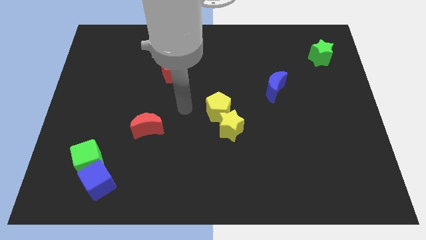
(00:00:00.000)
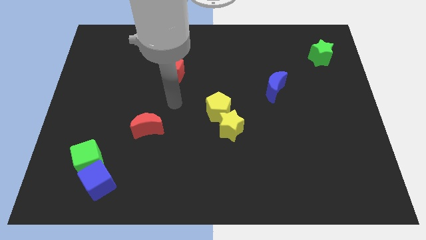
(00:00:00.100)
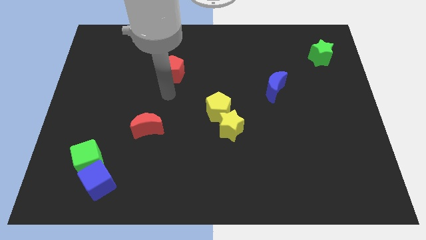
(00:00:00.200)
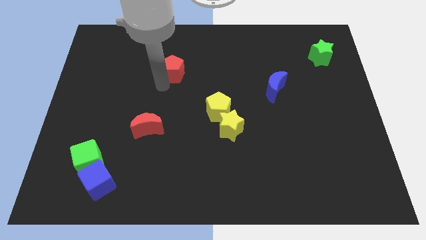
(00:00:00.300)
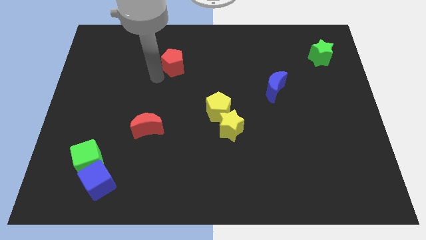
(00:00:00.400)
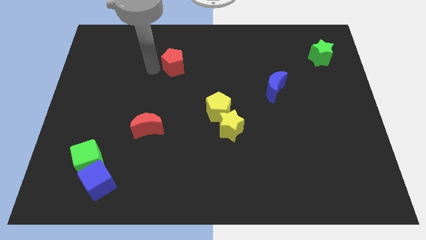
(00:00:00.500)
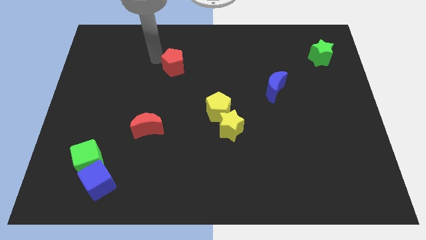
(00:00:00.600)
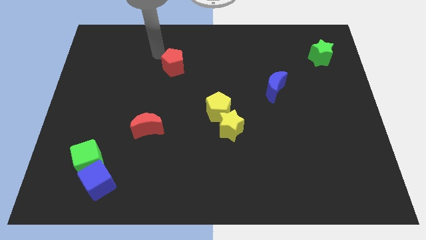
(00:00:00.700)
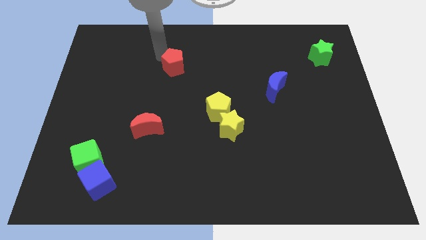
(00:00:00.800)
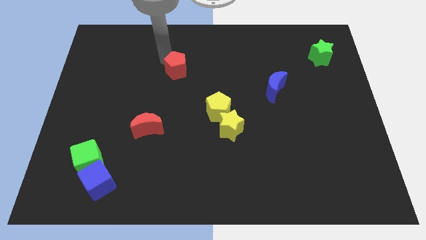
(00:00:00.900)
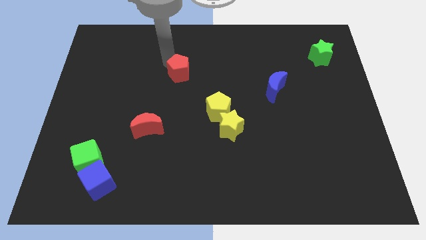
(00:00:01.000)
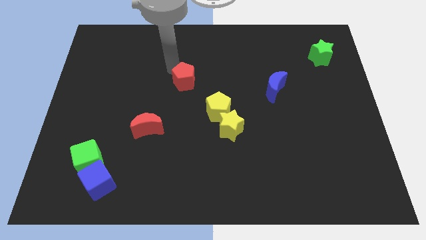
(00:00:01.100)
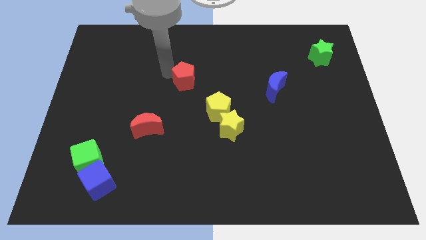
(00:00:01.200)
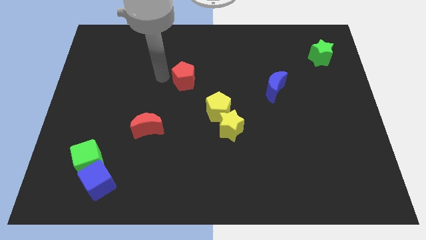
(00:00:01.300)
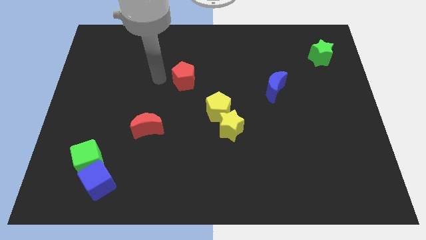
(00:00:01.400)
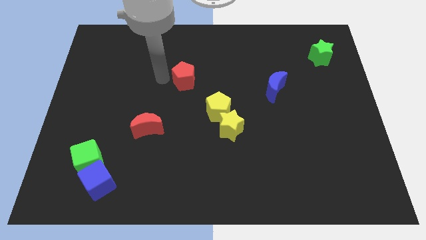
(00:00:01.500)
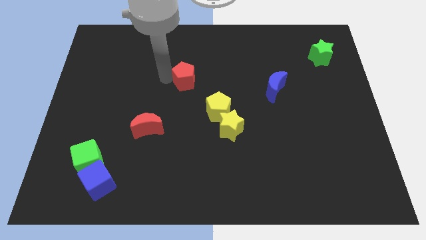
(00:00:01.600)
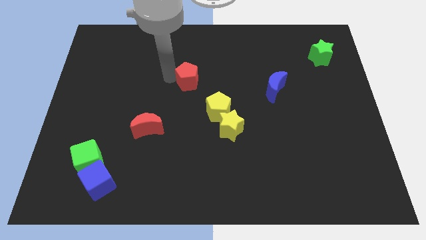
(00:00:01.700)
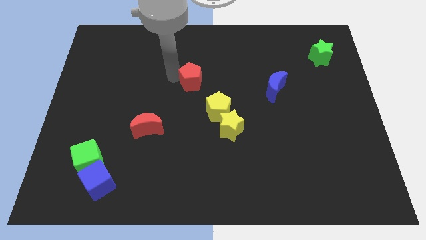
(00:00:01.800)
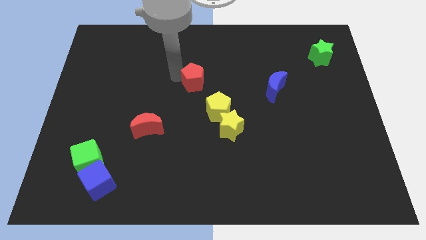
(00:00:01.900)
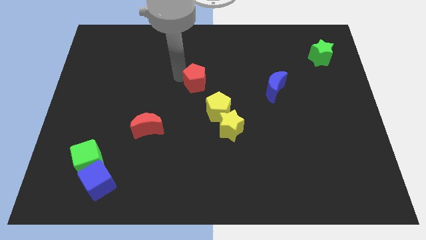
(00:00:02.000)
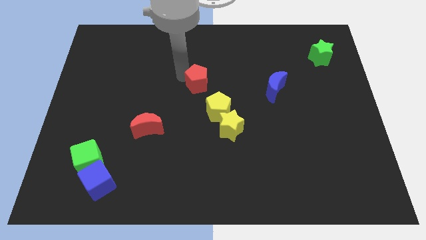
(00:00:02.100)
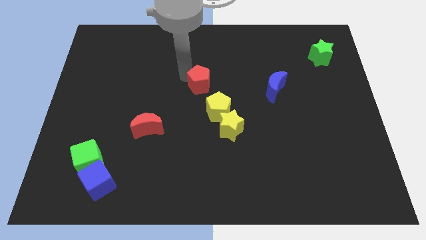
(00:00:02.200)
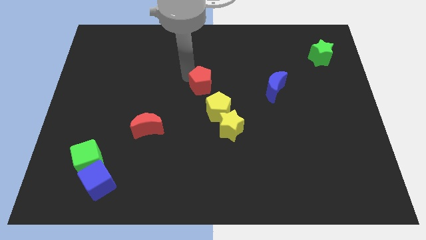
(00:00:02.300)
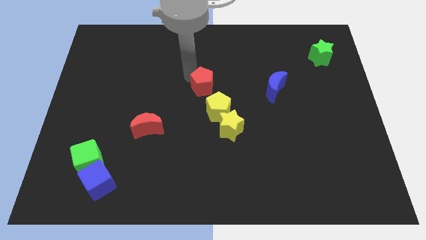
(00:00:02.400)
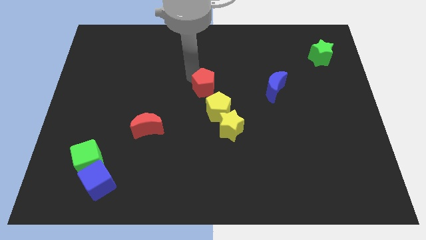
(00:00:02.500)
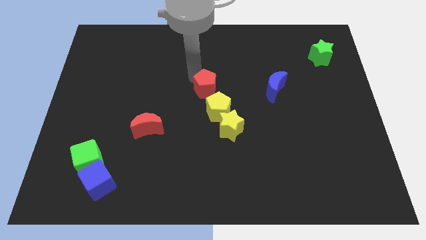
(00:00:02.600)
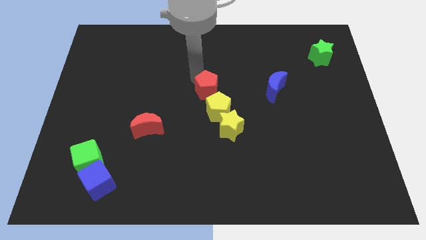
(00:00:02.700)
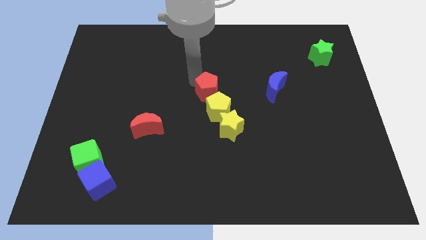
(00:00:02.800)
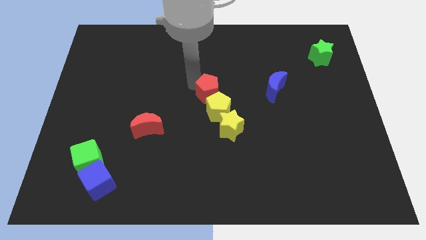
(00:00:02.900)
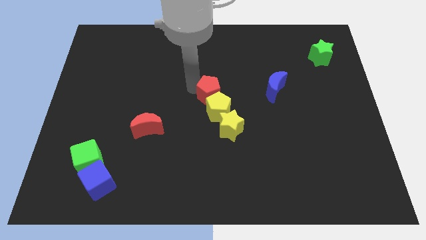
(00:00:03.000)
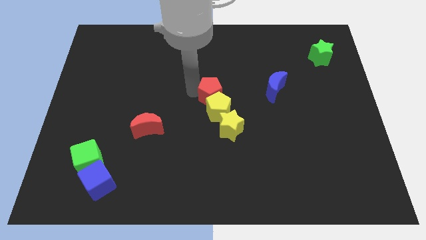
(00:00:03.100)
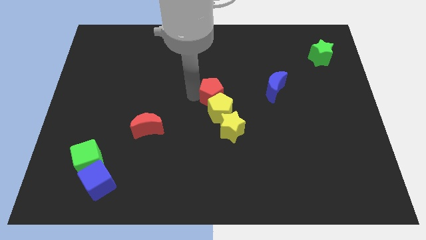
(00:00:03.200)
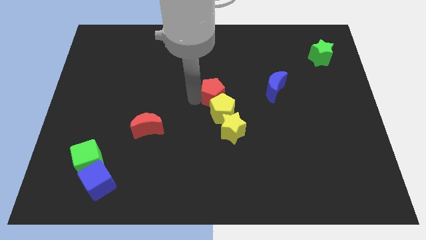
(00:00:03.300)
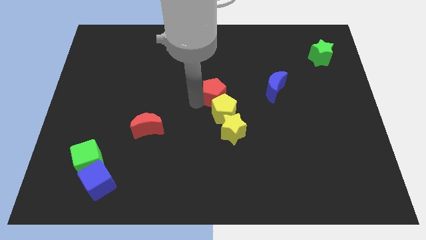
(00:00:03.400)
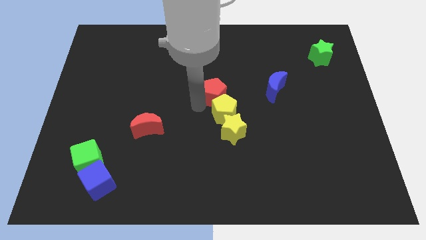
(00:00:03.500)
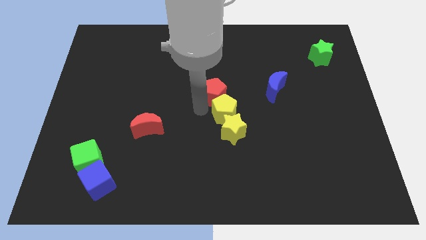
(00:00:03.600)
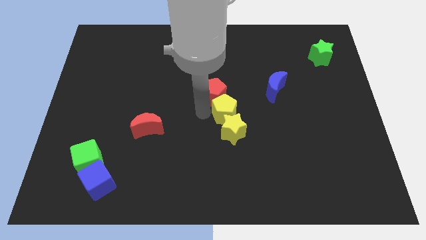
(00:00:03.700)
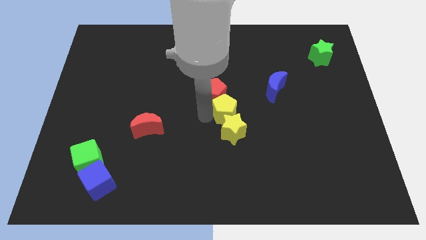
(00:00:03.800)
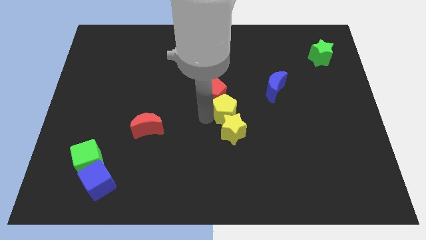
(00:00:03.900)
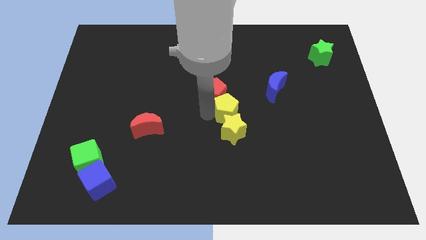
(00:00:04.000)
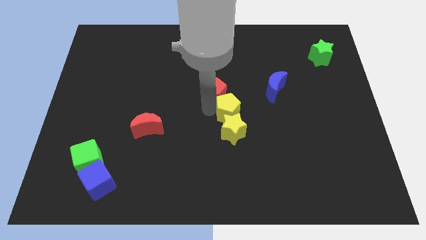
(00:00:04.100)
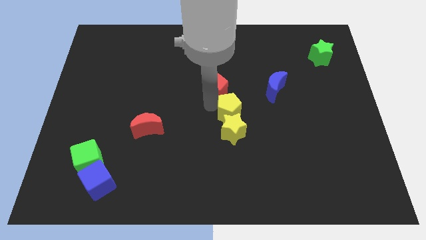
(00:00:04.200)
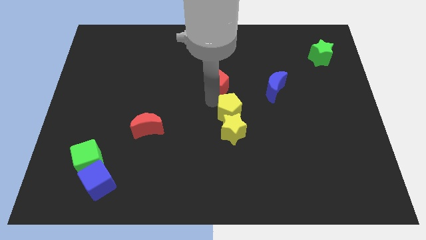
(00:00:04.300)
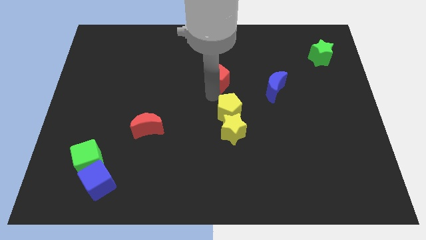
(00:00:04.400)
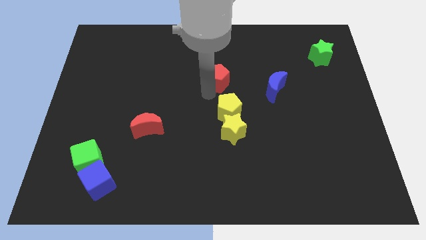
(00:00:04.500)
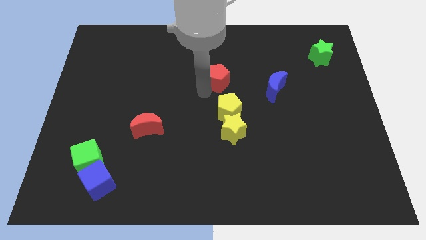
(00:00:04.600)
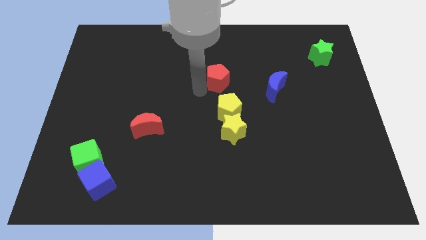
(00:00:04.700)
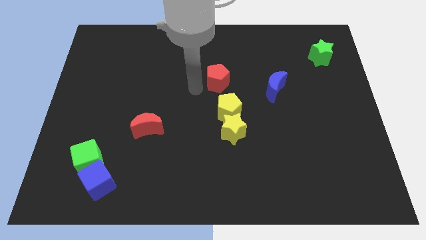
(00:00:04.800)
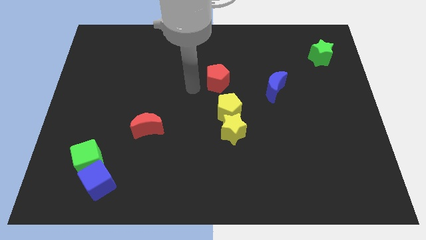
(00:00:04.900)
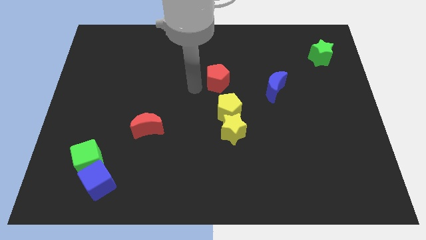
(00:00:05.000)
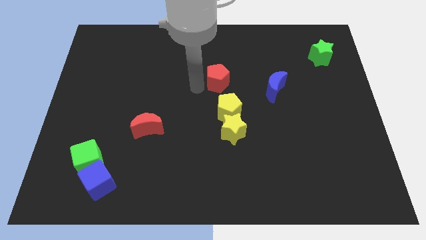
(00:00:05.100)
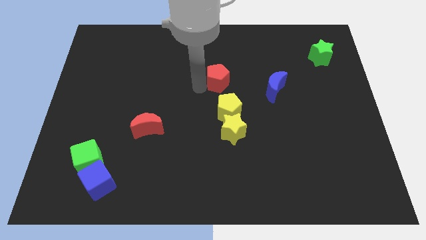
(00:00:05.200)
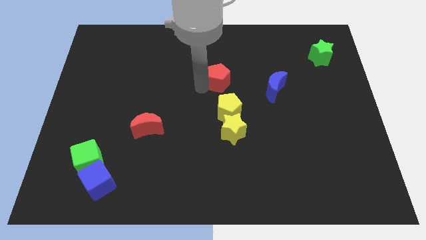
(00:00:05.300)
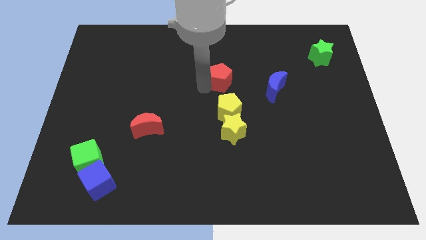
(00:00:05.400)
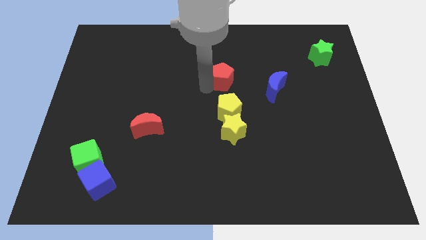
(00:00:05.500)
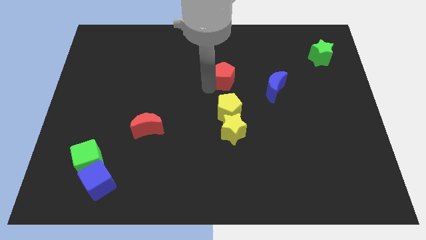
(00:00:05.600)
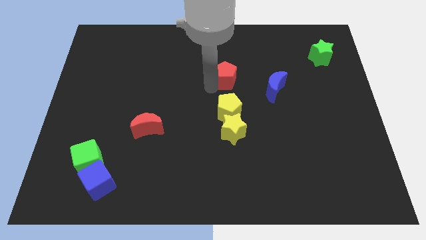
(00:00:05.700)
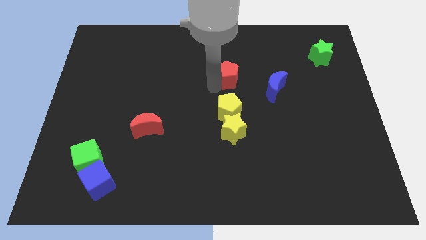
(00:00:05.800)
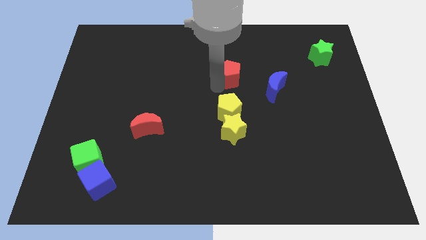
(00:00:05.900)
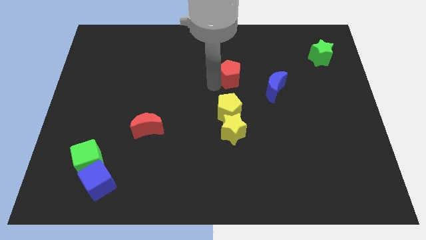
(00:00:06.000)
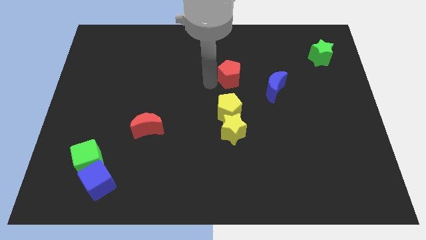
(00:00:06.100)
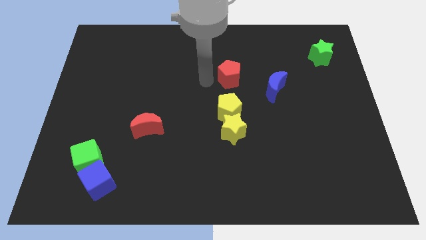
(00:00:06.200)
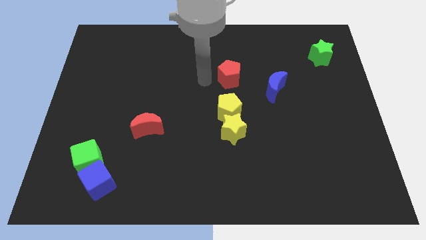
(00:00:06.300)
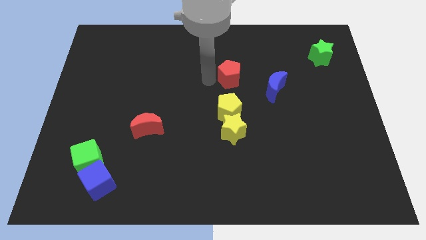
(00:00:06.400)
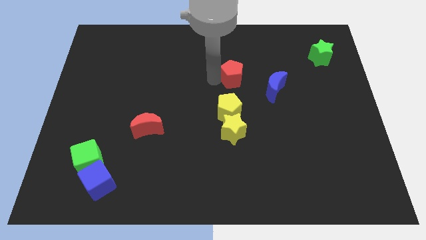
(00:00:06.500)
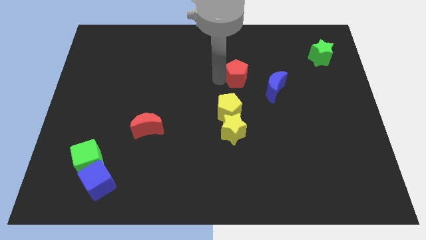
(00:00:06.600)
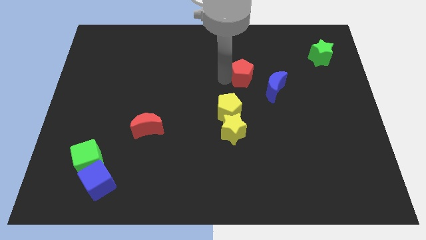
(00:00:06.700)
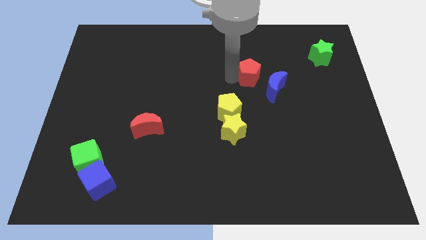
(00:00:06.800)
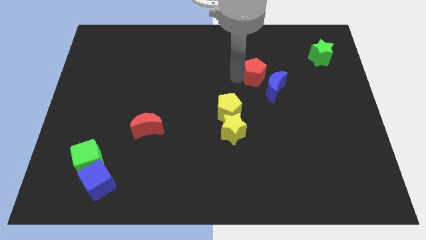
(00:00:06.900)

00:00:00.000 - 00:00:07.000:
slide the red pentagon to the right

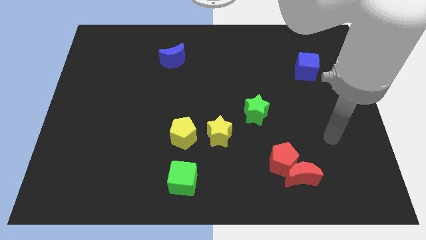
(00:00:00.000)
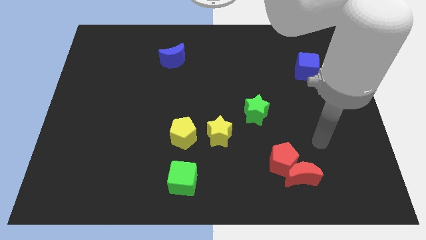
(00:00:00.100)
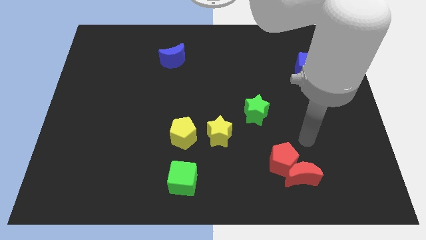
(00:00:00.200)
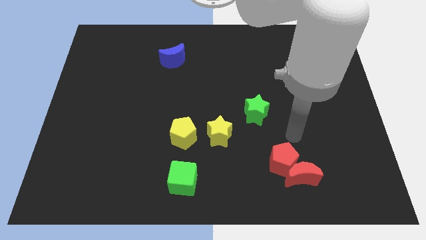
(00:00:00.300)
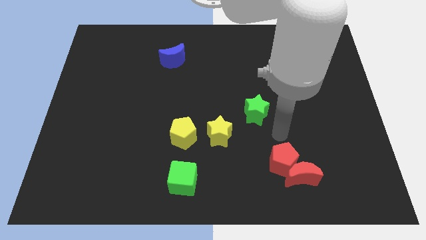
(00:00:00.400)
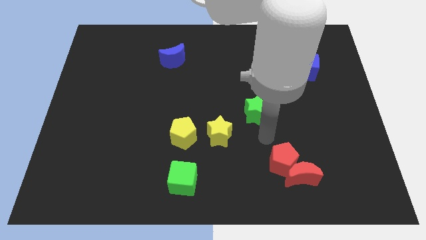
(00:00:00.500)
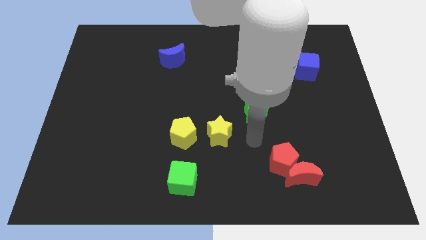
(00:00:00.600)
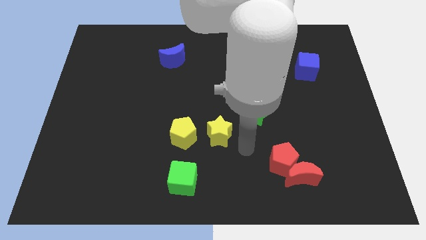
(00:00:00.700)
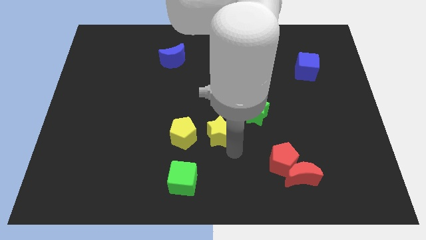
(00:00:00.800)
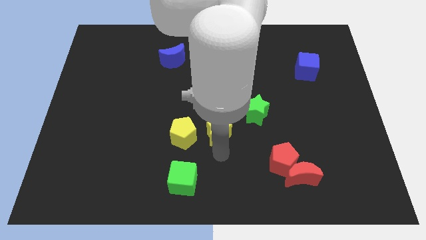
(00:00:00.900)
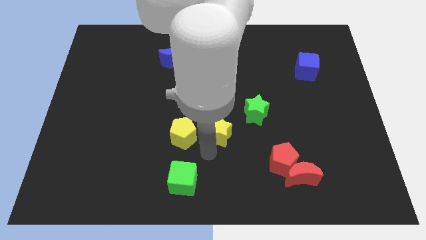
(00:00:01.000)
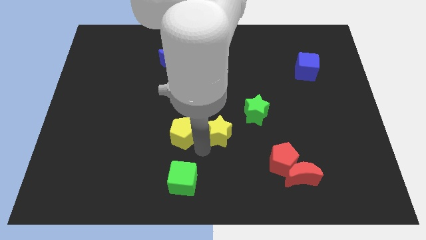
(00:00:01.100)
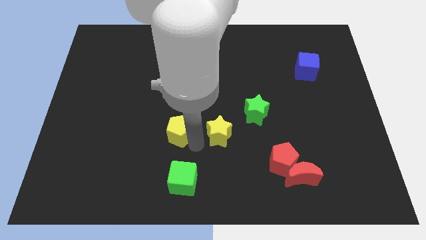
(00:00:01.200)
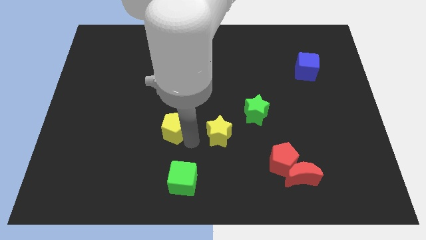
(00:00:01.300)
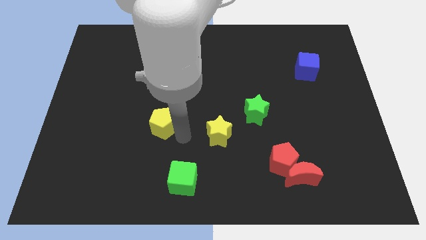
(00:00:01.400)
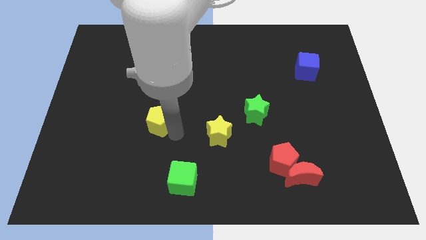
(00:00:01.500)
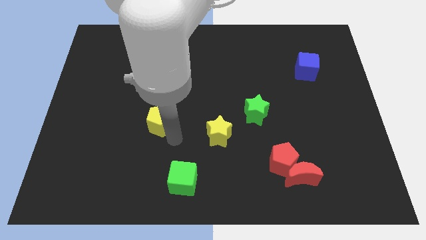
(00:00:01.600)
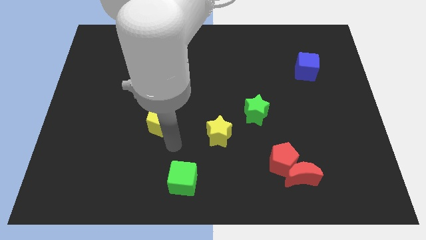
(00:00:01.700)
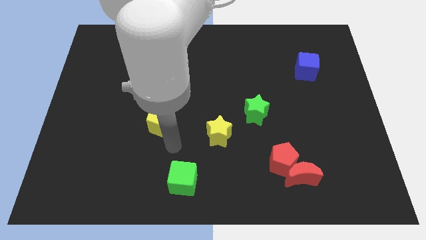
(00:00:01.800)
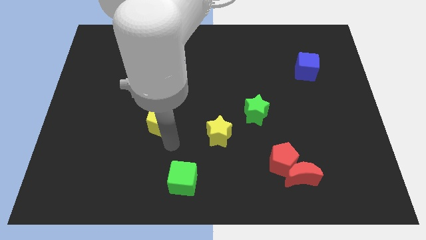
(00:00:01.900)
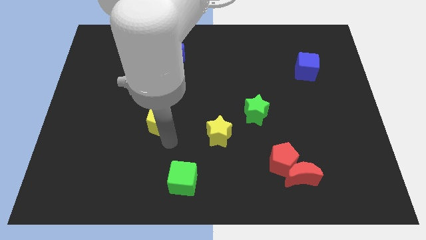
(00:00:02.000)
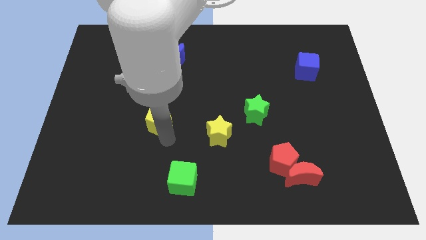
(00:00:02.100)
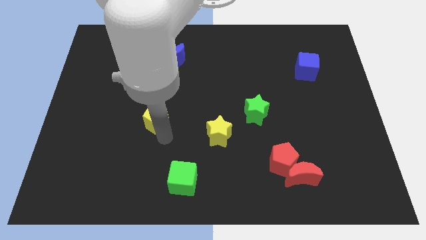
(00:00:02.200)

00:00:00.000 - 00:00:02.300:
move the yellow pentagon upwards and then left somewhat
